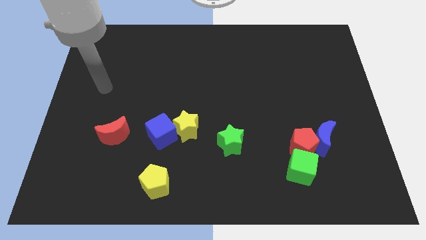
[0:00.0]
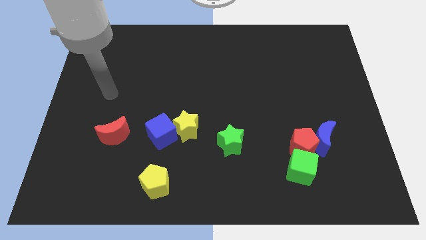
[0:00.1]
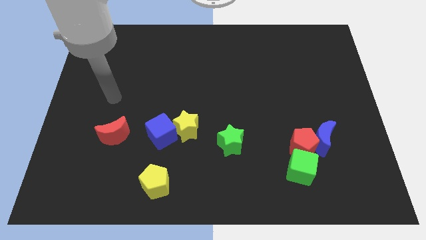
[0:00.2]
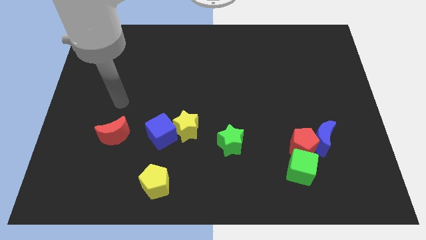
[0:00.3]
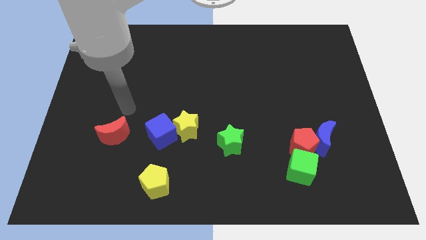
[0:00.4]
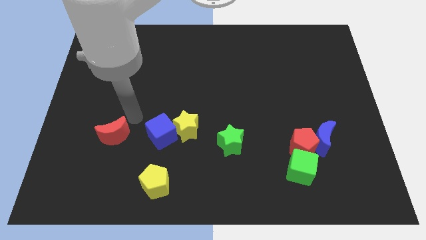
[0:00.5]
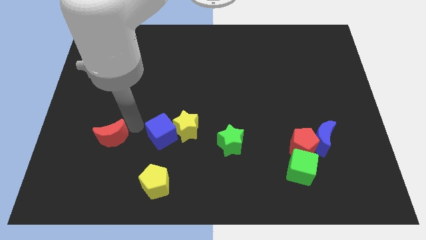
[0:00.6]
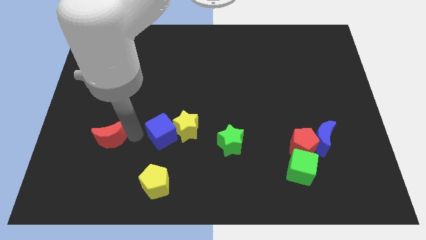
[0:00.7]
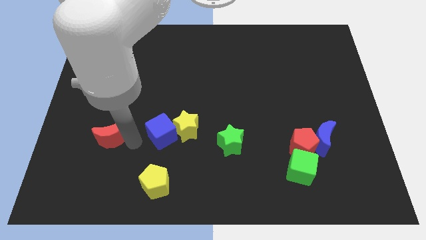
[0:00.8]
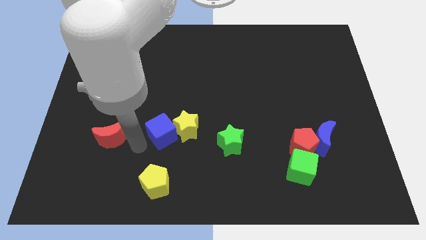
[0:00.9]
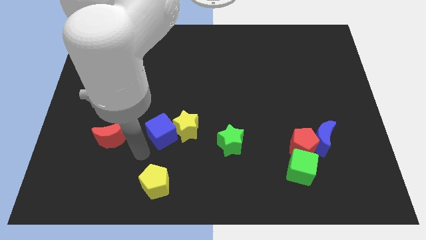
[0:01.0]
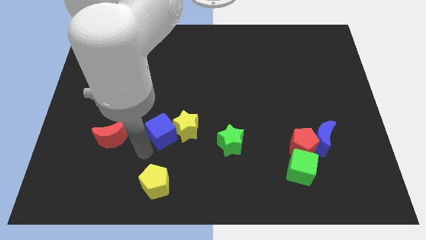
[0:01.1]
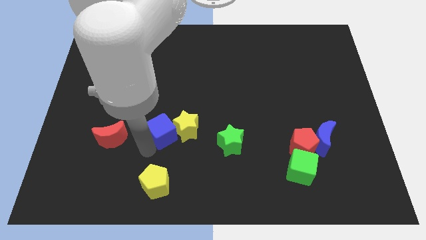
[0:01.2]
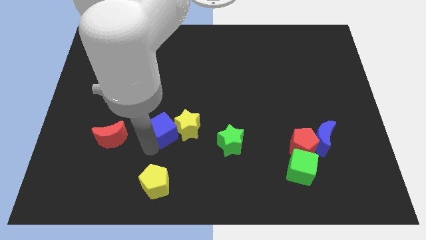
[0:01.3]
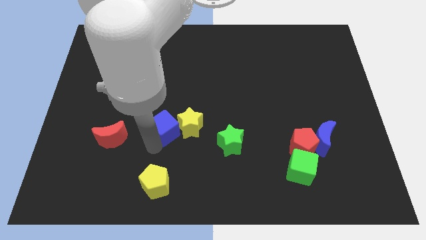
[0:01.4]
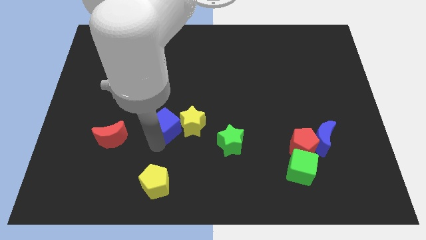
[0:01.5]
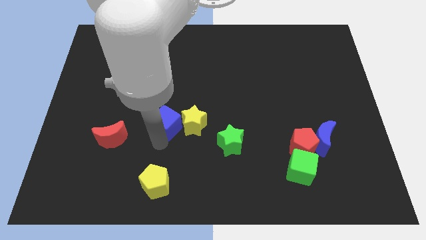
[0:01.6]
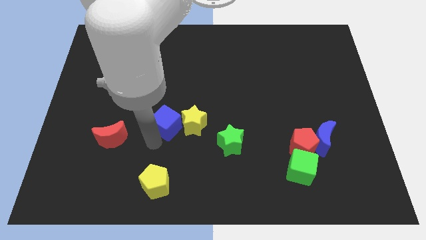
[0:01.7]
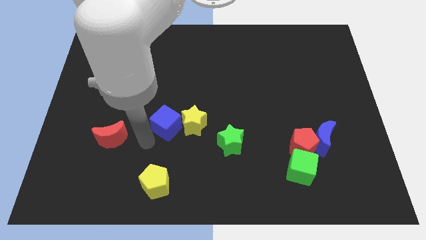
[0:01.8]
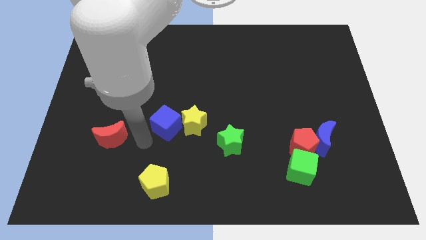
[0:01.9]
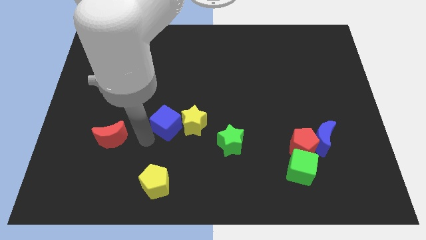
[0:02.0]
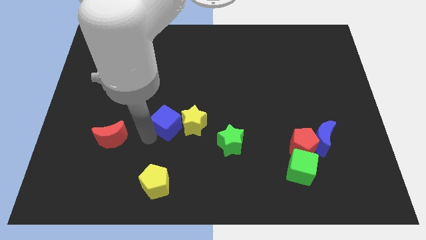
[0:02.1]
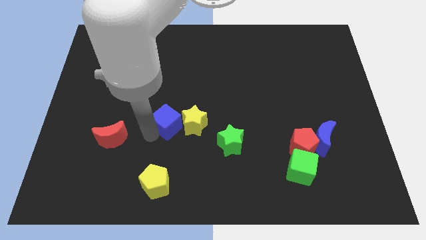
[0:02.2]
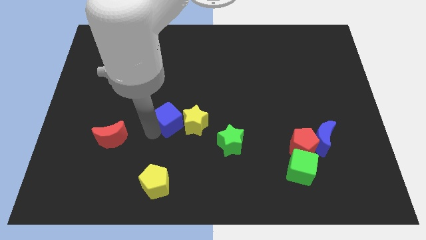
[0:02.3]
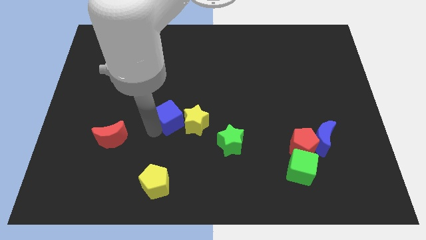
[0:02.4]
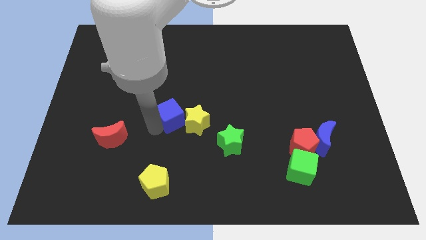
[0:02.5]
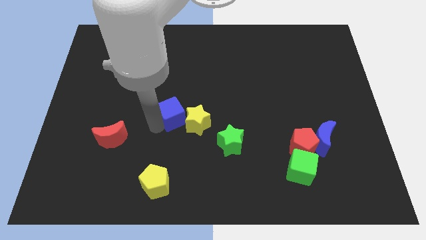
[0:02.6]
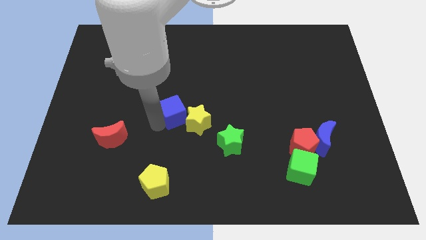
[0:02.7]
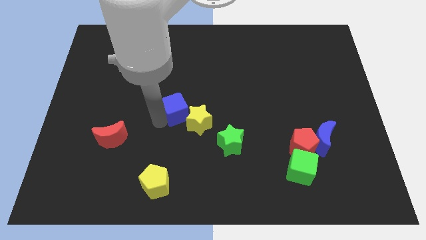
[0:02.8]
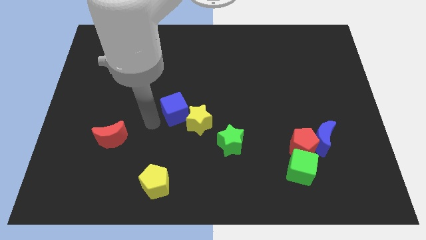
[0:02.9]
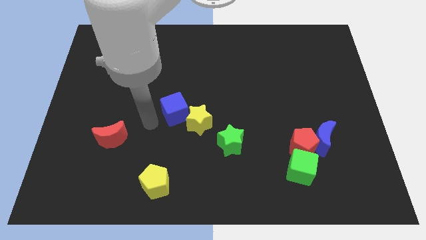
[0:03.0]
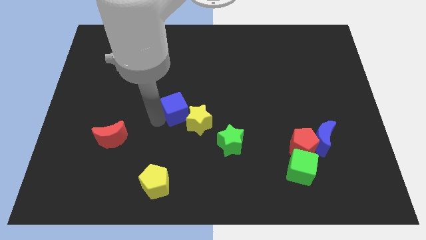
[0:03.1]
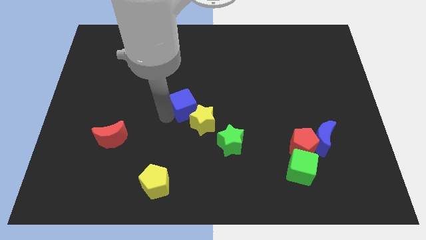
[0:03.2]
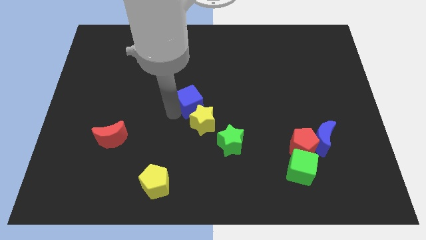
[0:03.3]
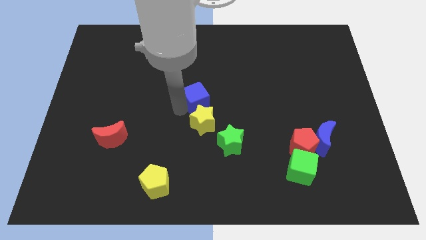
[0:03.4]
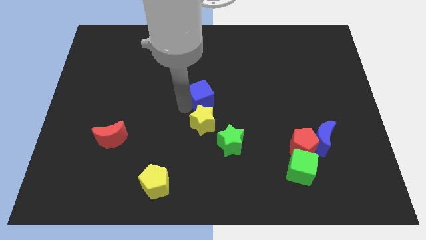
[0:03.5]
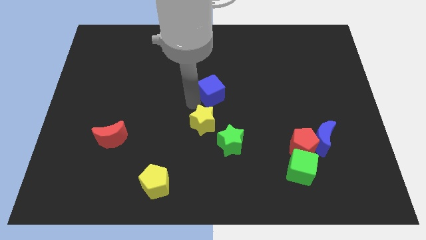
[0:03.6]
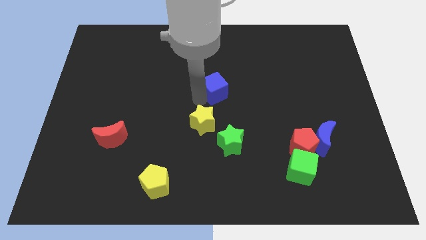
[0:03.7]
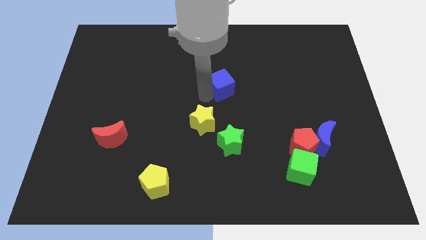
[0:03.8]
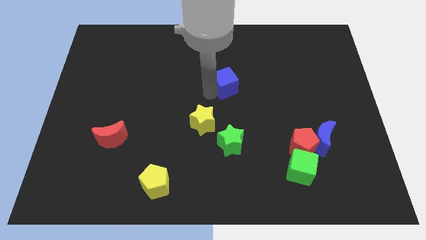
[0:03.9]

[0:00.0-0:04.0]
push the blue cube diagonally upwards and right

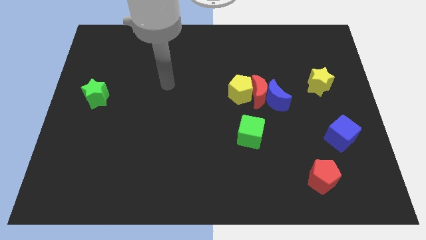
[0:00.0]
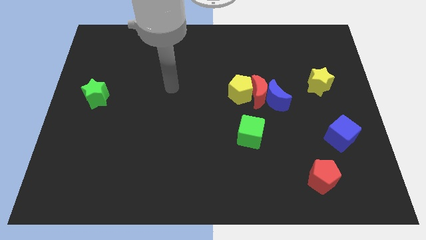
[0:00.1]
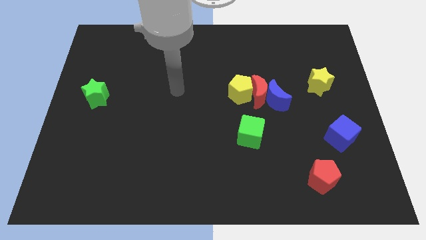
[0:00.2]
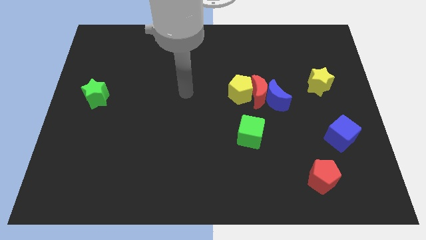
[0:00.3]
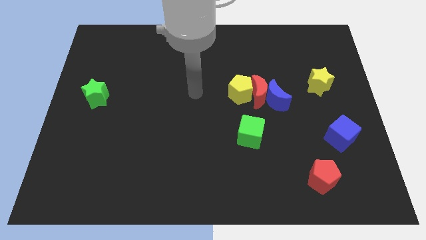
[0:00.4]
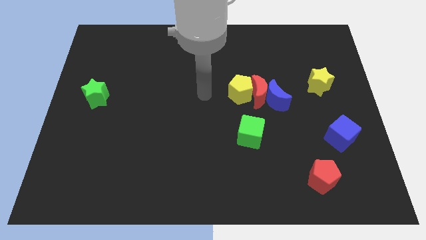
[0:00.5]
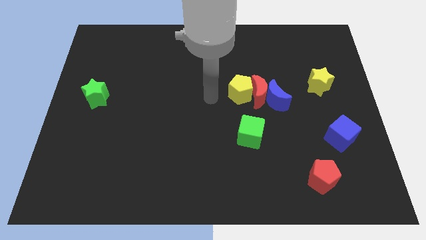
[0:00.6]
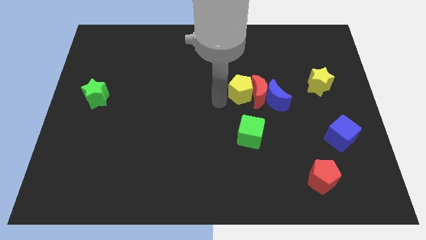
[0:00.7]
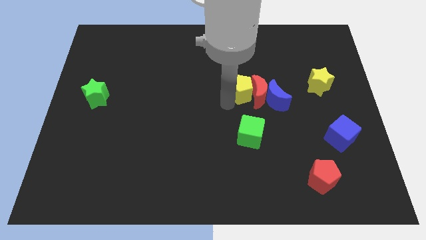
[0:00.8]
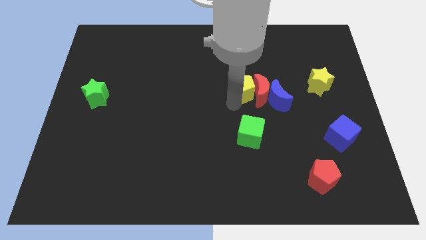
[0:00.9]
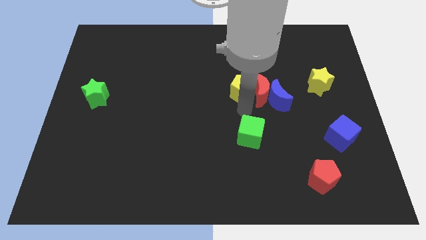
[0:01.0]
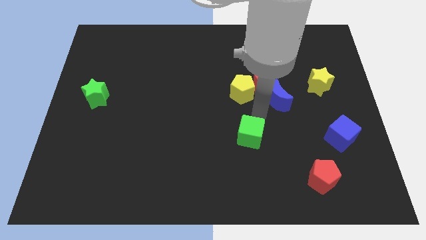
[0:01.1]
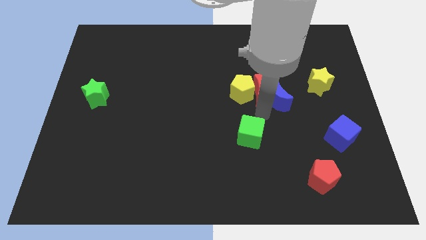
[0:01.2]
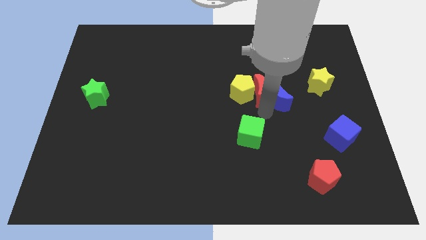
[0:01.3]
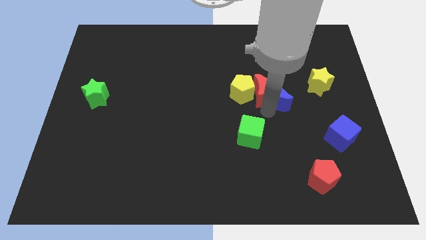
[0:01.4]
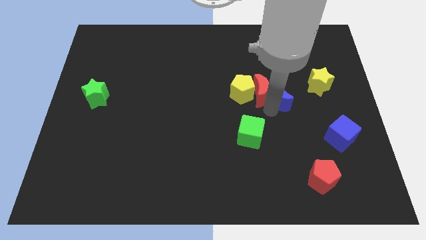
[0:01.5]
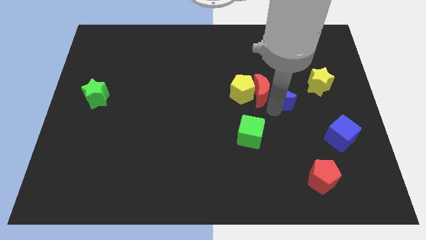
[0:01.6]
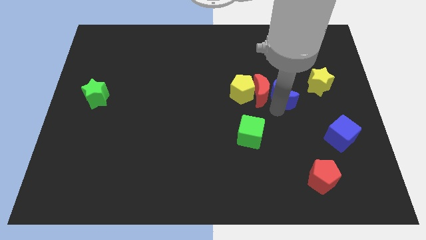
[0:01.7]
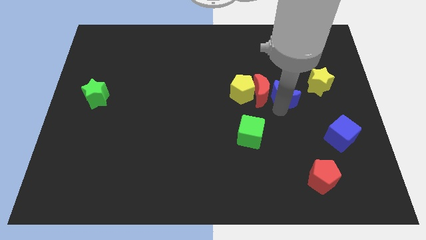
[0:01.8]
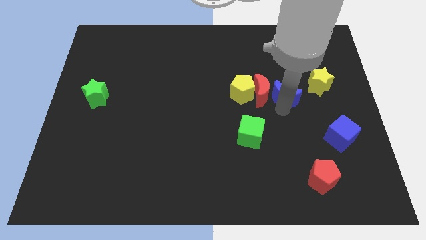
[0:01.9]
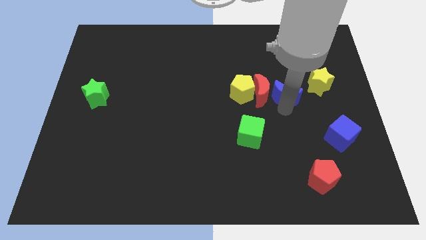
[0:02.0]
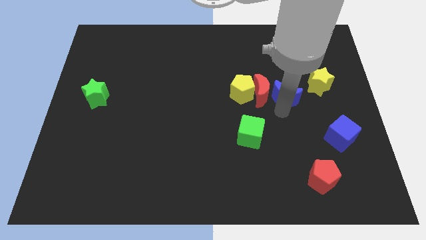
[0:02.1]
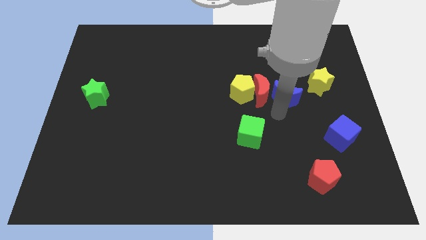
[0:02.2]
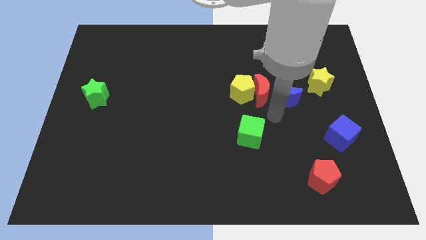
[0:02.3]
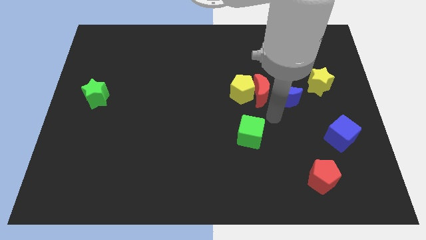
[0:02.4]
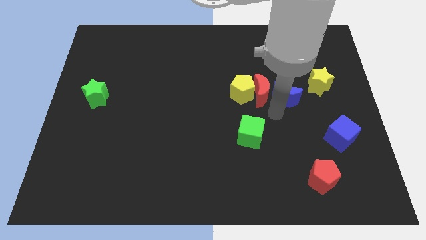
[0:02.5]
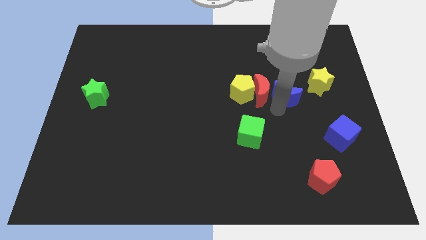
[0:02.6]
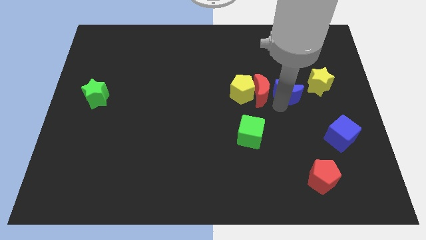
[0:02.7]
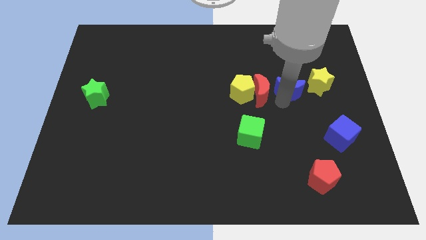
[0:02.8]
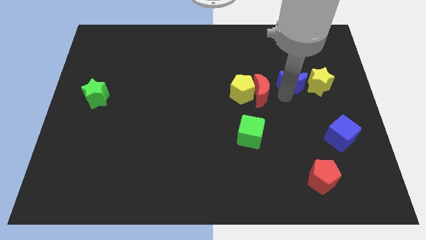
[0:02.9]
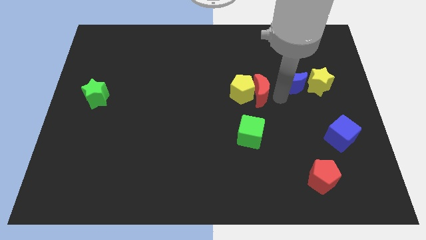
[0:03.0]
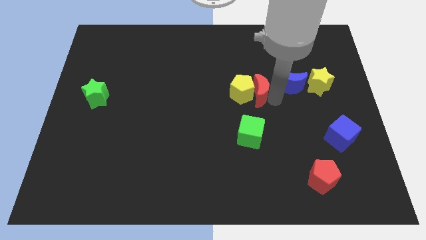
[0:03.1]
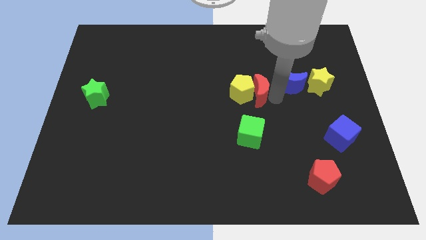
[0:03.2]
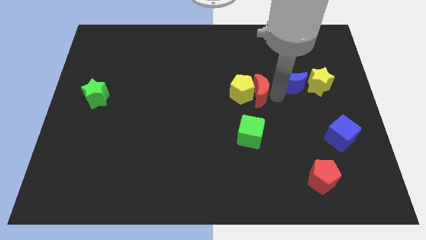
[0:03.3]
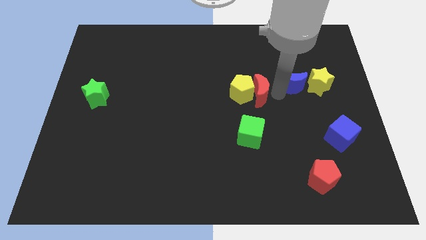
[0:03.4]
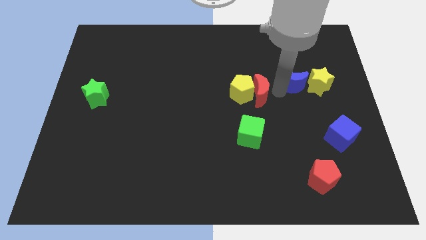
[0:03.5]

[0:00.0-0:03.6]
push the blue moon a little bit up and right

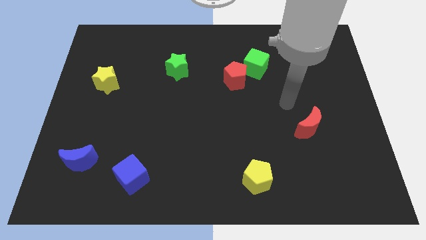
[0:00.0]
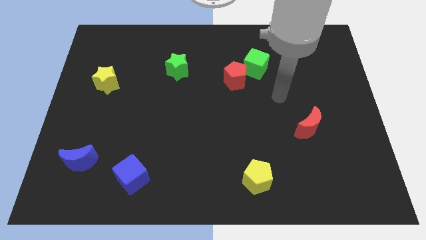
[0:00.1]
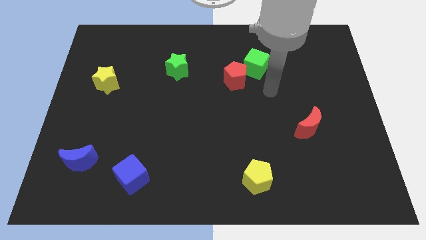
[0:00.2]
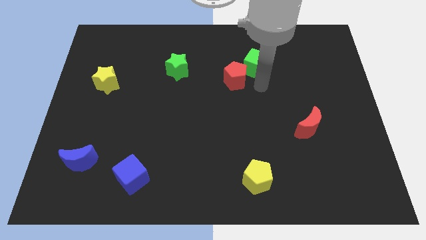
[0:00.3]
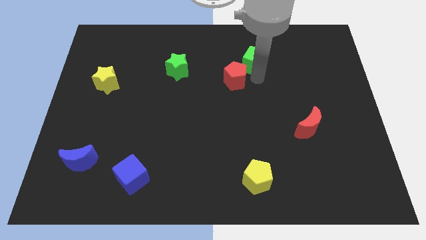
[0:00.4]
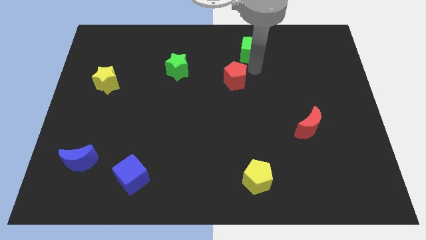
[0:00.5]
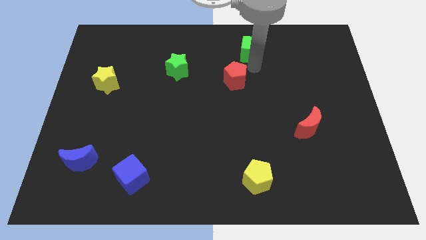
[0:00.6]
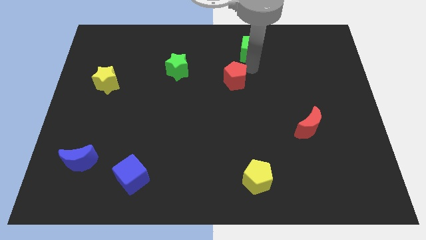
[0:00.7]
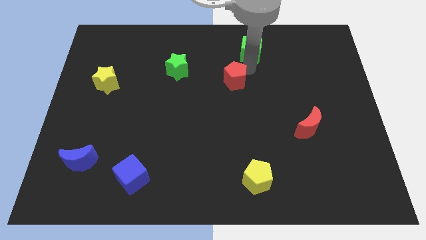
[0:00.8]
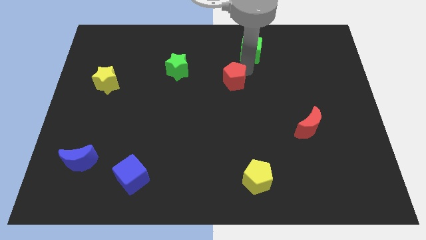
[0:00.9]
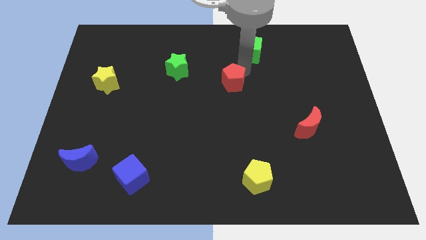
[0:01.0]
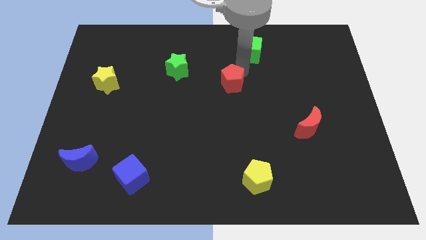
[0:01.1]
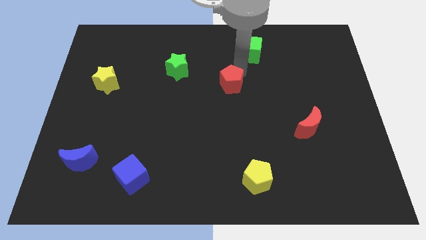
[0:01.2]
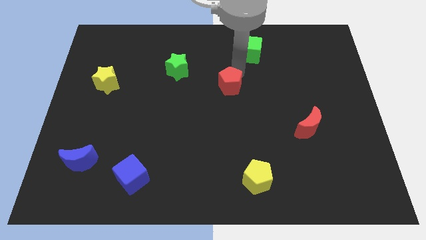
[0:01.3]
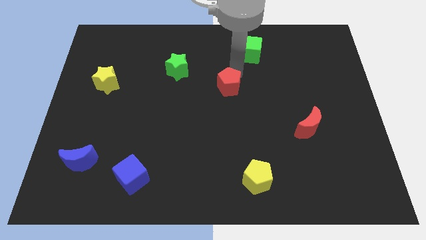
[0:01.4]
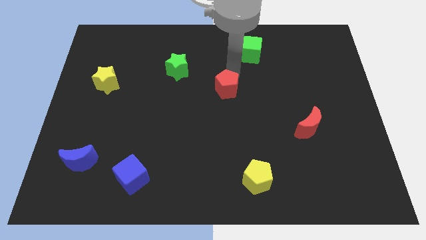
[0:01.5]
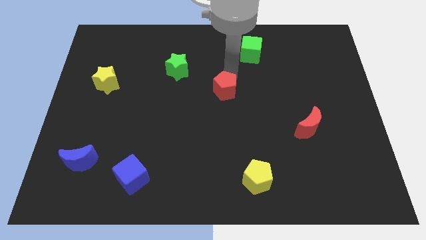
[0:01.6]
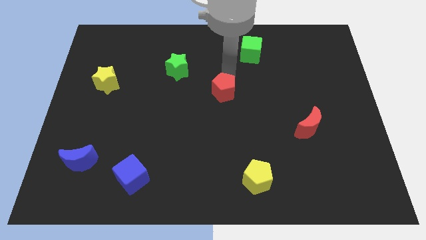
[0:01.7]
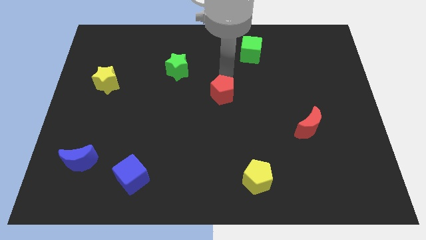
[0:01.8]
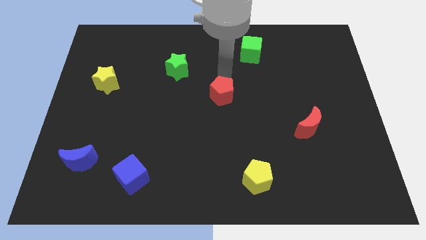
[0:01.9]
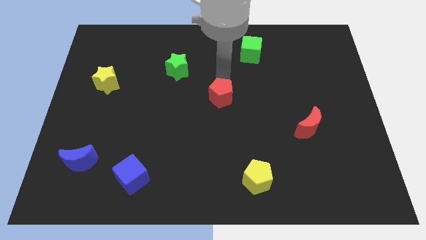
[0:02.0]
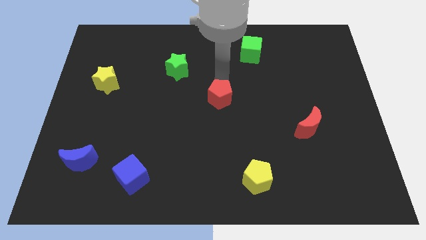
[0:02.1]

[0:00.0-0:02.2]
move the red pentagon slightly down and to the left diagonally
